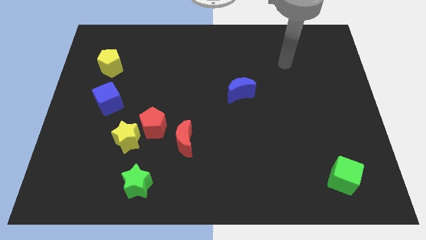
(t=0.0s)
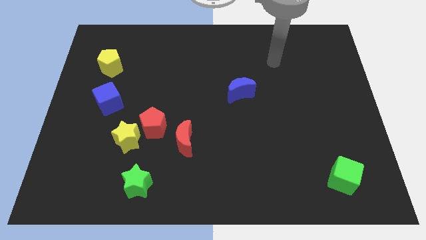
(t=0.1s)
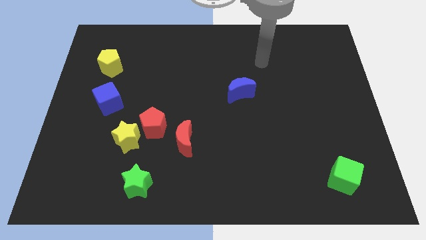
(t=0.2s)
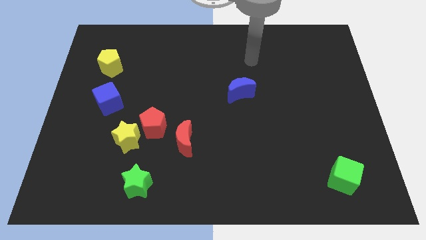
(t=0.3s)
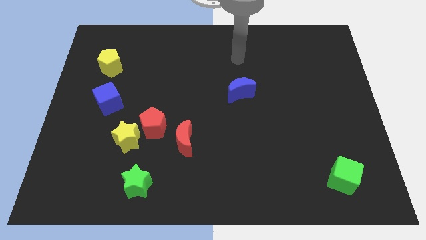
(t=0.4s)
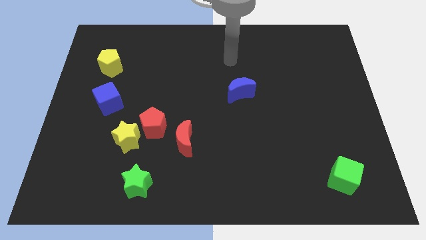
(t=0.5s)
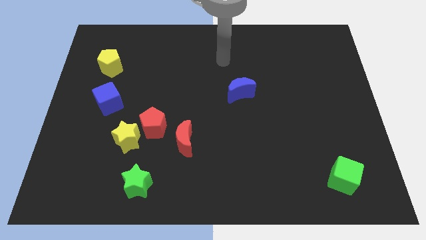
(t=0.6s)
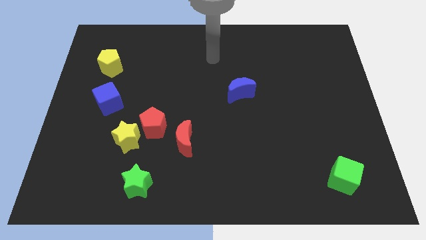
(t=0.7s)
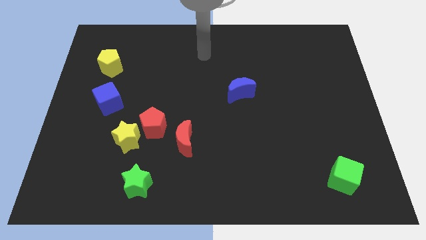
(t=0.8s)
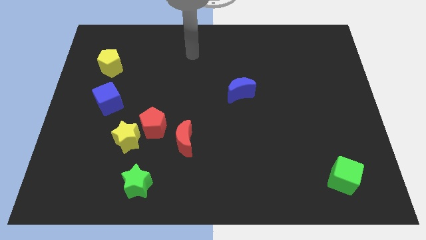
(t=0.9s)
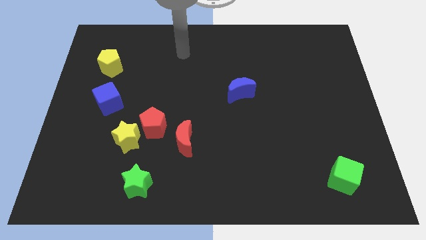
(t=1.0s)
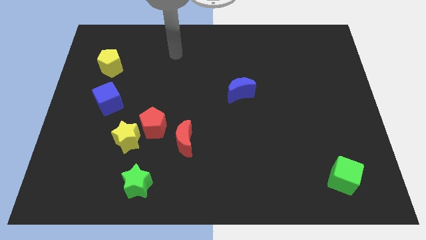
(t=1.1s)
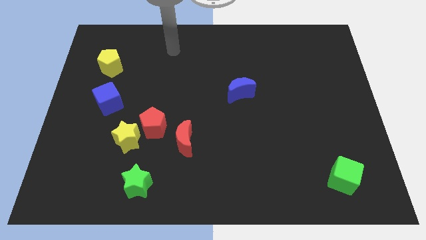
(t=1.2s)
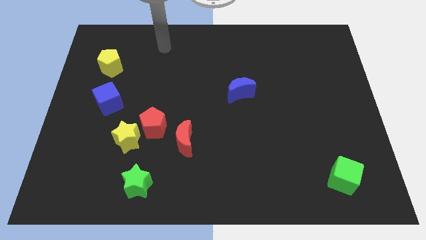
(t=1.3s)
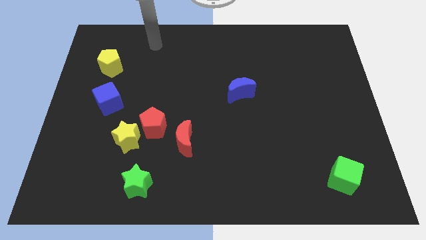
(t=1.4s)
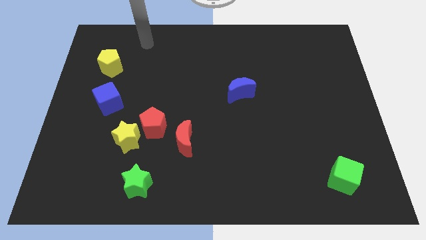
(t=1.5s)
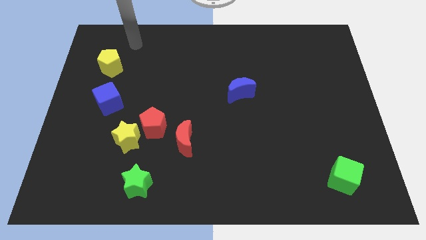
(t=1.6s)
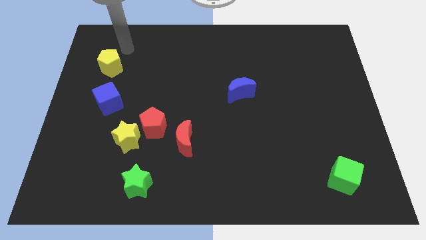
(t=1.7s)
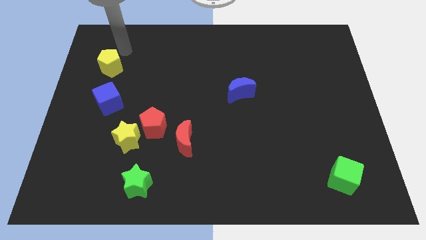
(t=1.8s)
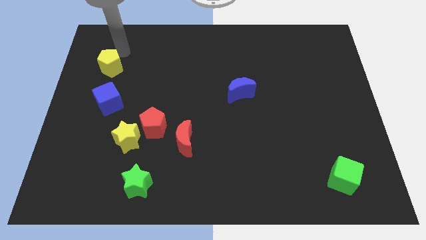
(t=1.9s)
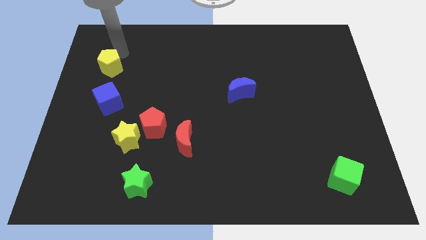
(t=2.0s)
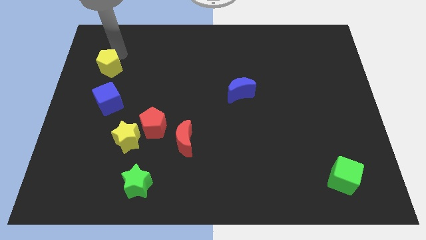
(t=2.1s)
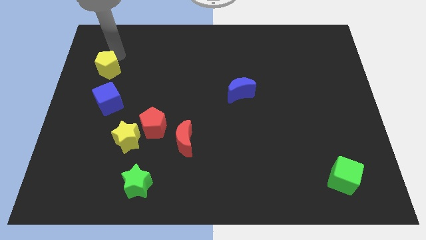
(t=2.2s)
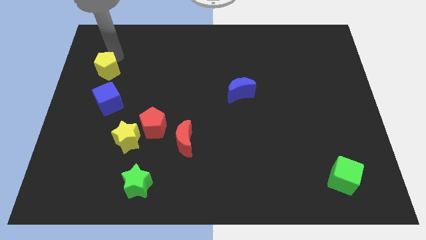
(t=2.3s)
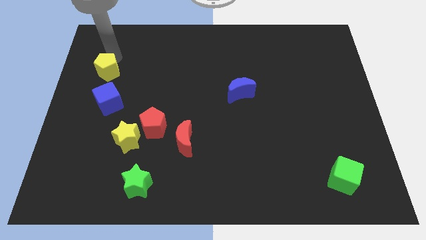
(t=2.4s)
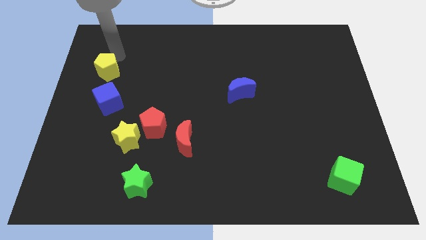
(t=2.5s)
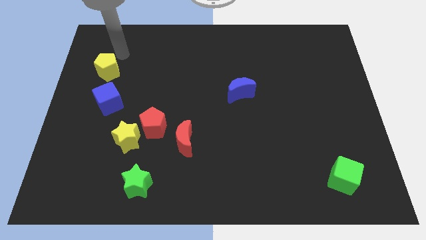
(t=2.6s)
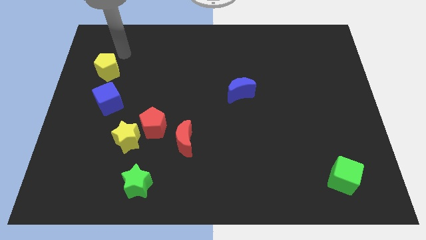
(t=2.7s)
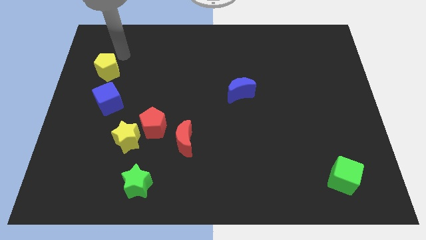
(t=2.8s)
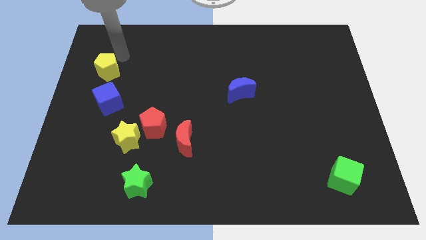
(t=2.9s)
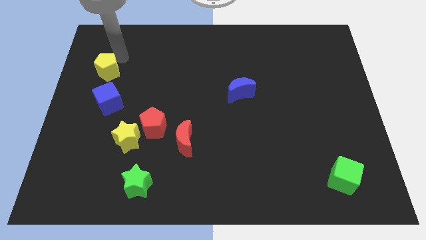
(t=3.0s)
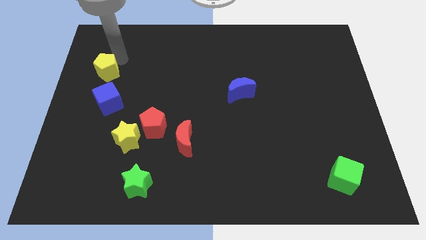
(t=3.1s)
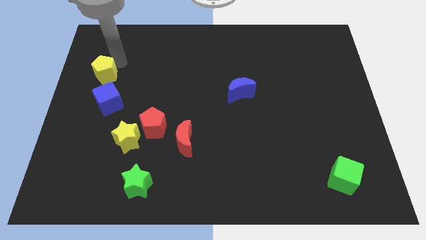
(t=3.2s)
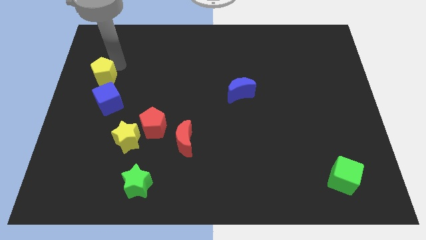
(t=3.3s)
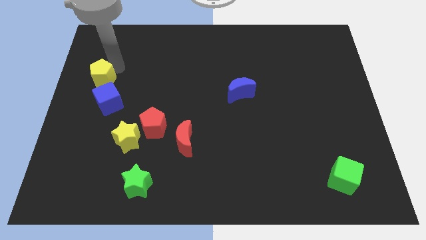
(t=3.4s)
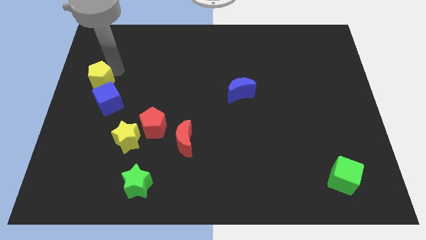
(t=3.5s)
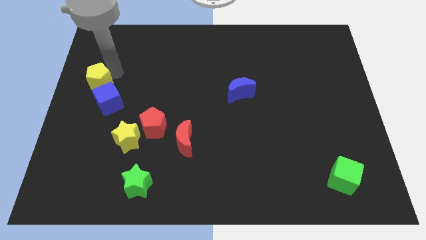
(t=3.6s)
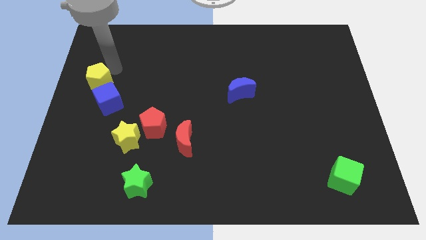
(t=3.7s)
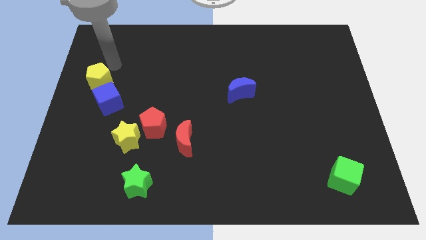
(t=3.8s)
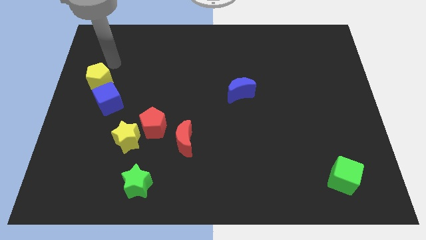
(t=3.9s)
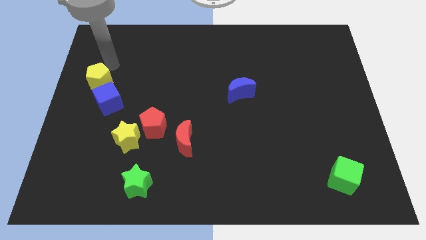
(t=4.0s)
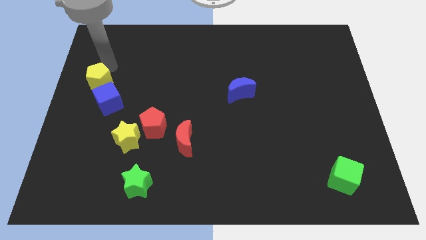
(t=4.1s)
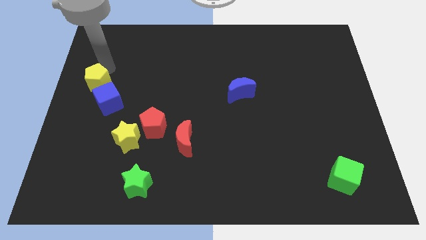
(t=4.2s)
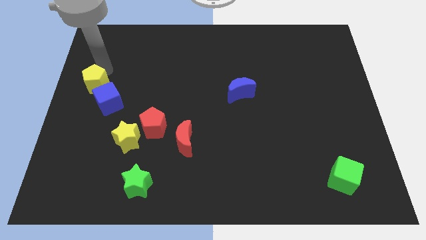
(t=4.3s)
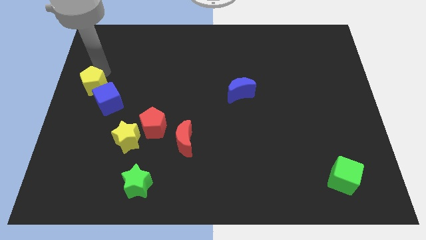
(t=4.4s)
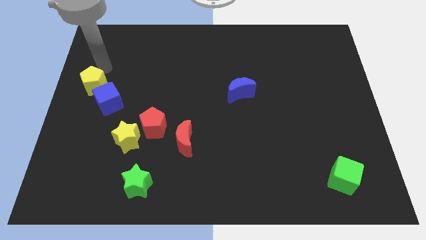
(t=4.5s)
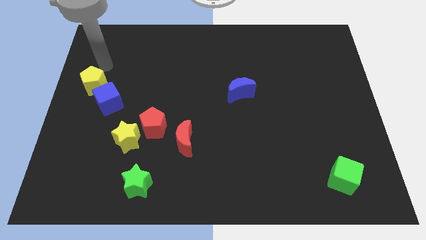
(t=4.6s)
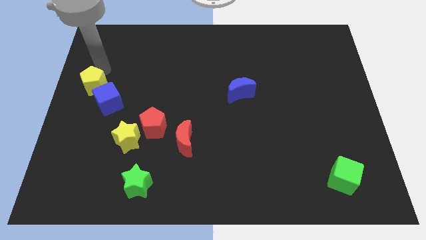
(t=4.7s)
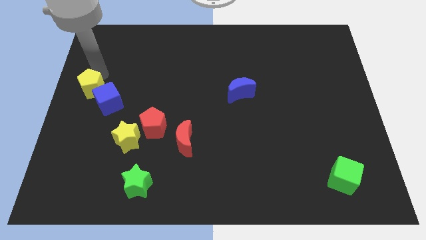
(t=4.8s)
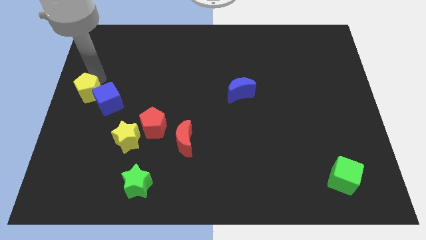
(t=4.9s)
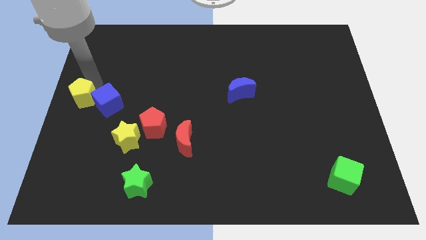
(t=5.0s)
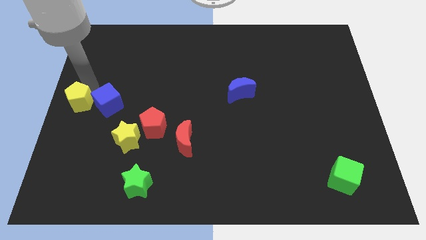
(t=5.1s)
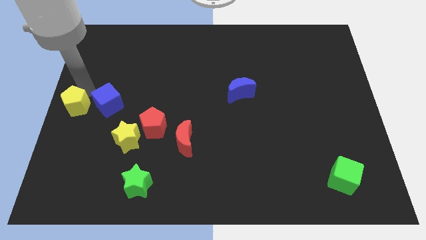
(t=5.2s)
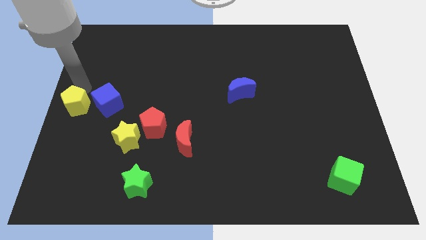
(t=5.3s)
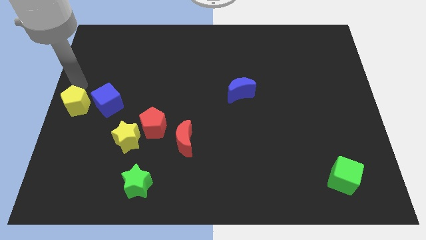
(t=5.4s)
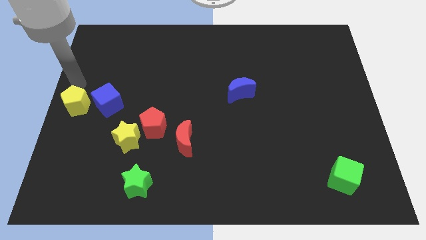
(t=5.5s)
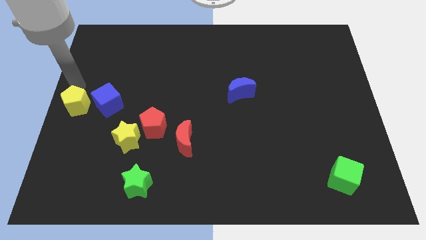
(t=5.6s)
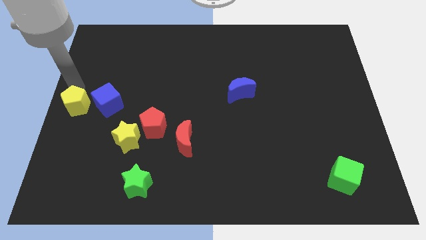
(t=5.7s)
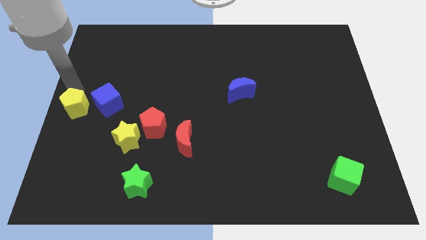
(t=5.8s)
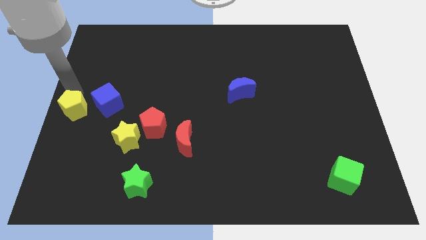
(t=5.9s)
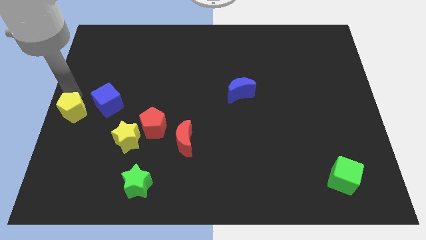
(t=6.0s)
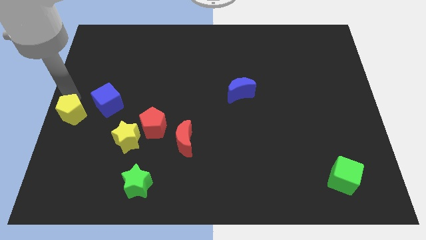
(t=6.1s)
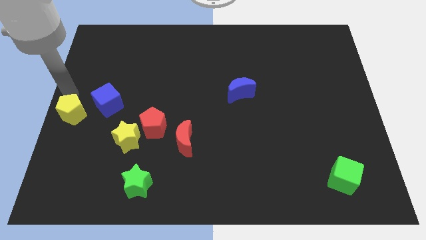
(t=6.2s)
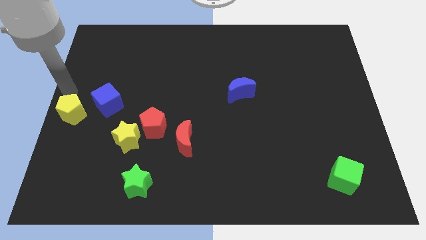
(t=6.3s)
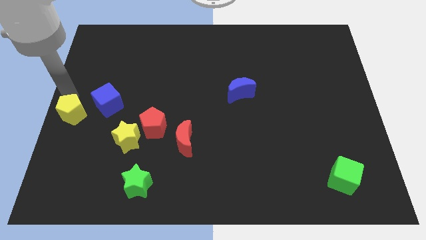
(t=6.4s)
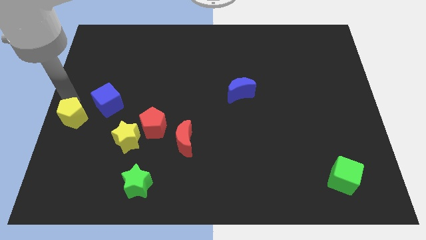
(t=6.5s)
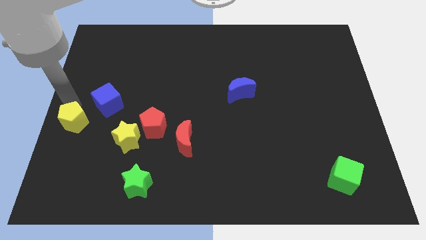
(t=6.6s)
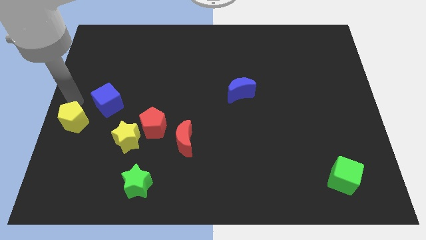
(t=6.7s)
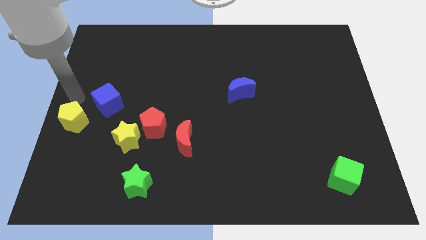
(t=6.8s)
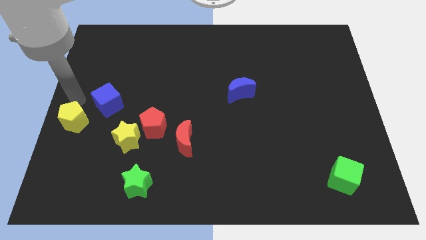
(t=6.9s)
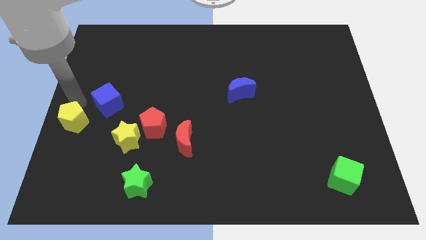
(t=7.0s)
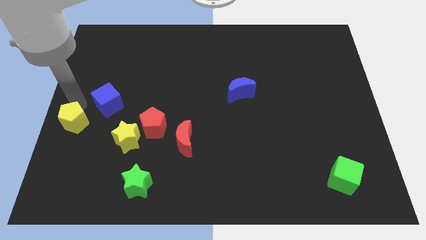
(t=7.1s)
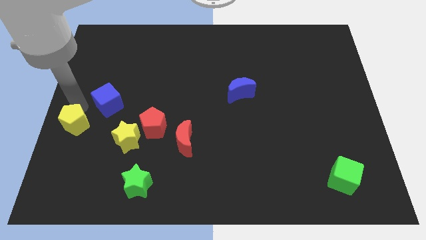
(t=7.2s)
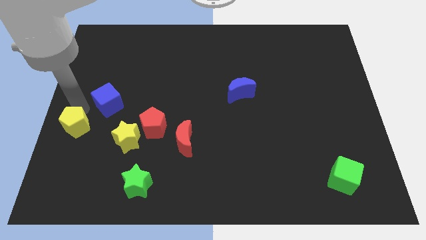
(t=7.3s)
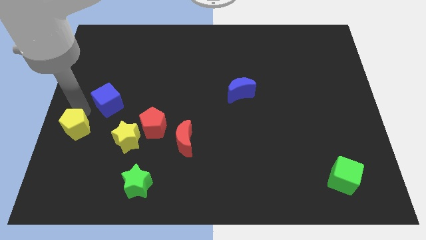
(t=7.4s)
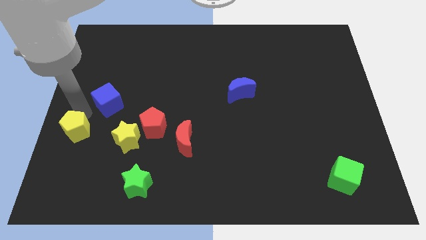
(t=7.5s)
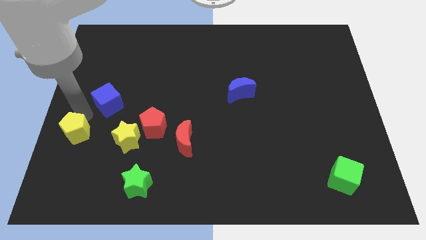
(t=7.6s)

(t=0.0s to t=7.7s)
slide the yellow pentagon down

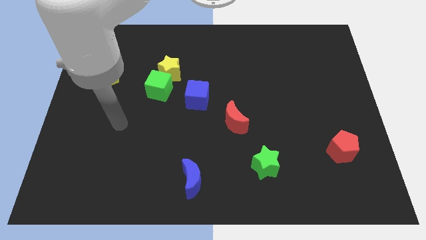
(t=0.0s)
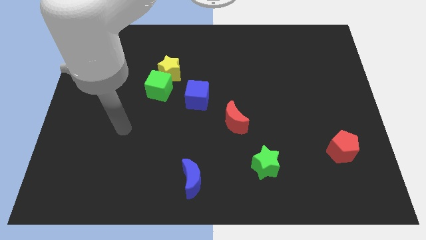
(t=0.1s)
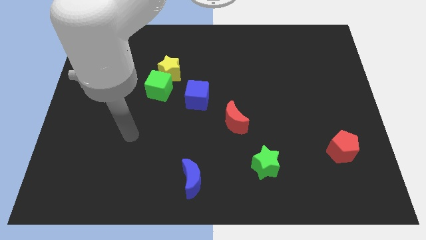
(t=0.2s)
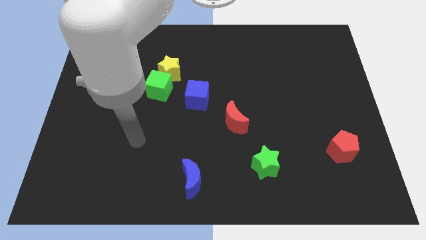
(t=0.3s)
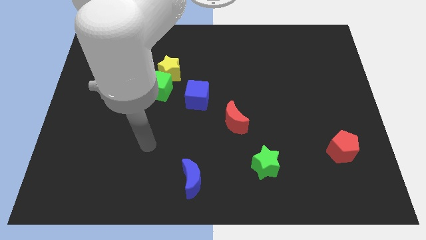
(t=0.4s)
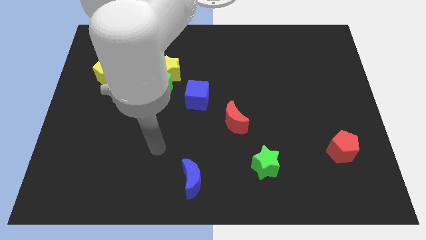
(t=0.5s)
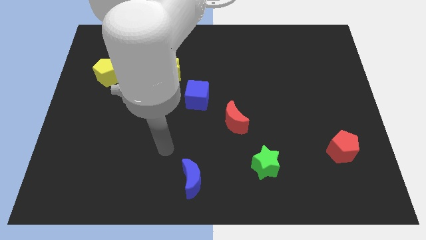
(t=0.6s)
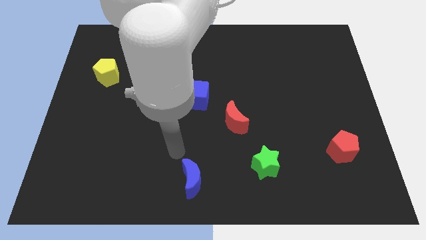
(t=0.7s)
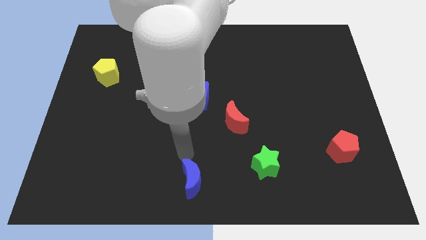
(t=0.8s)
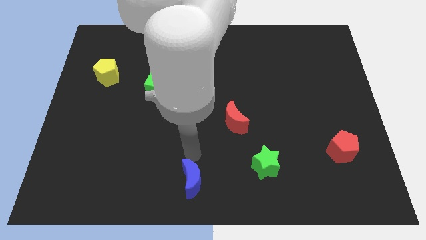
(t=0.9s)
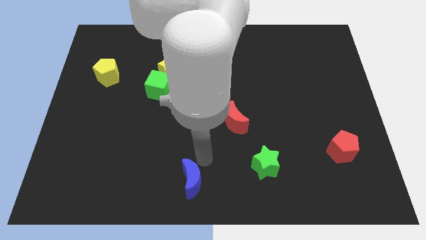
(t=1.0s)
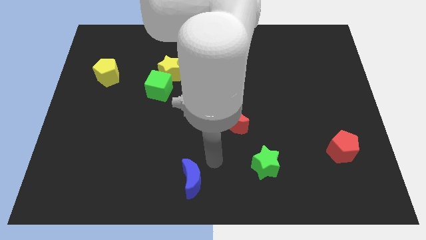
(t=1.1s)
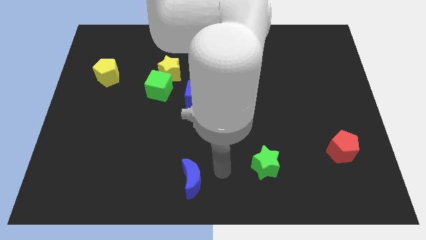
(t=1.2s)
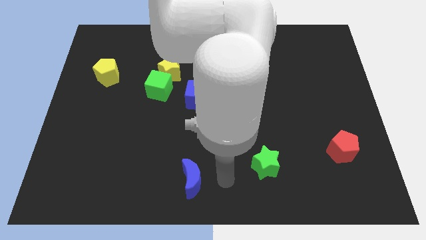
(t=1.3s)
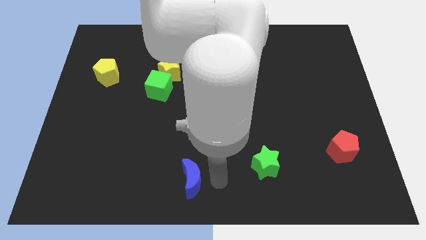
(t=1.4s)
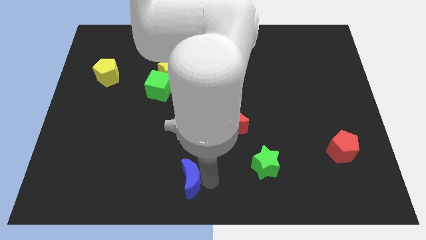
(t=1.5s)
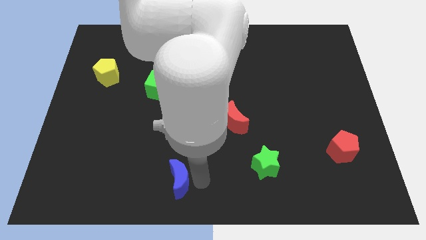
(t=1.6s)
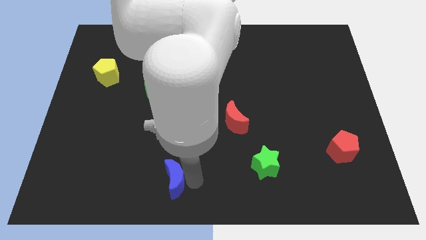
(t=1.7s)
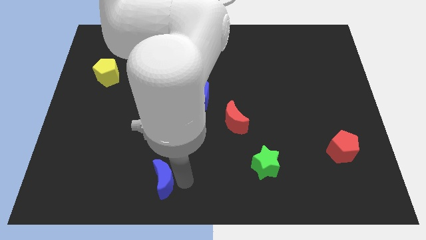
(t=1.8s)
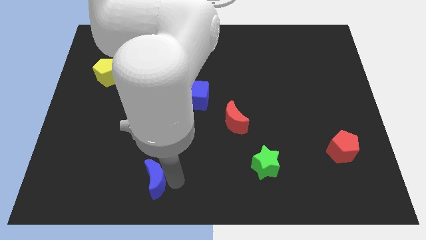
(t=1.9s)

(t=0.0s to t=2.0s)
slide the blue moon left slightly
